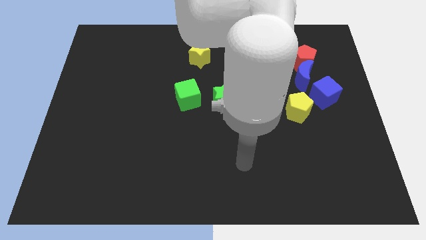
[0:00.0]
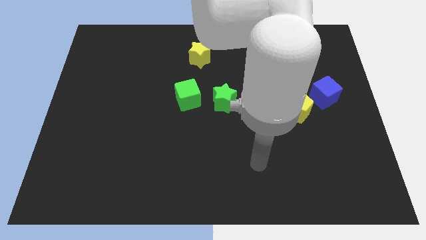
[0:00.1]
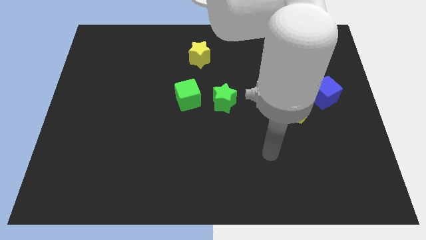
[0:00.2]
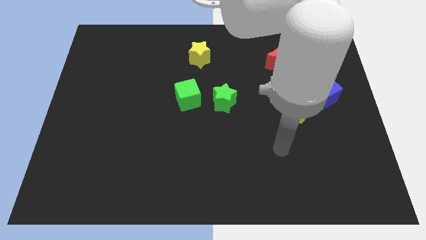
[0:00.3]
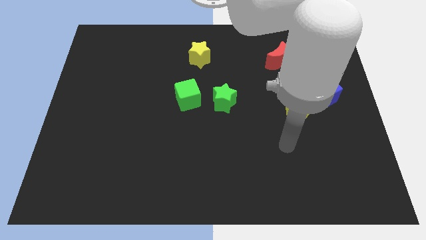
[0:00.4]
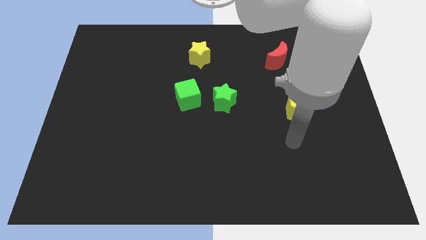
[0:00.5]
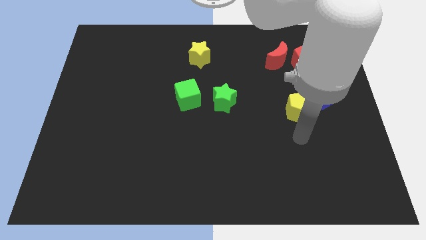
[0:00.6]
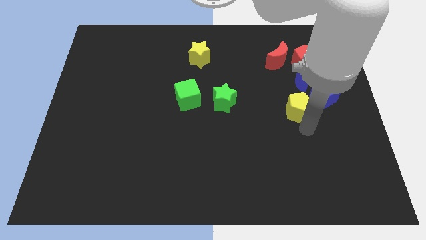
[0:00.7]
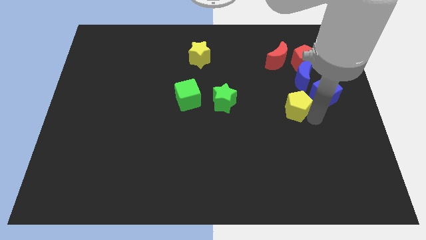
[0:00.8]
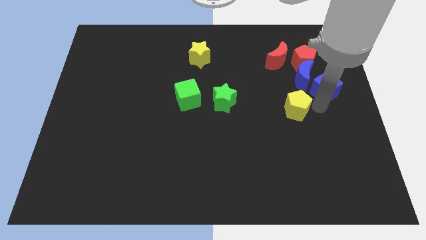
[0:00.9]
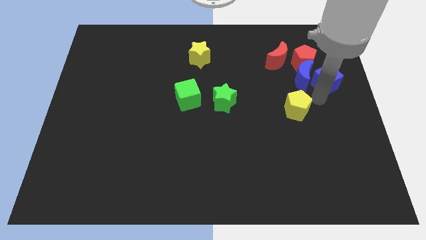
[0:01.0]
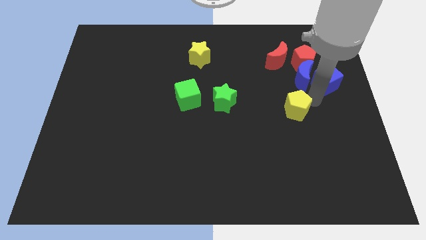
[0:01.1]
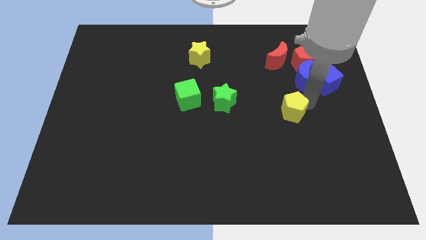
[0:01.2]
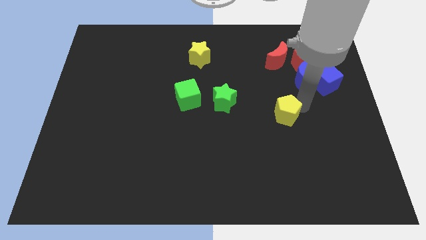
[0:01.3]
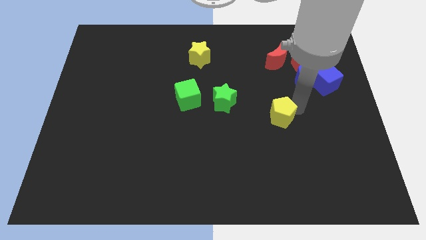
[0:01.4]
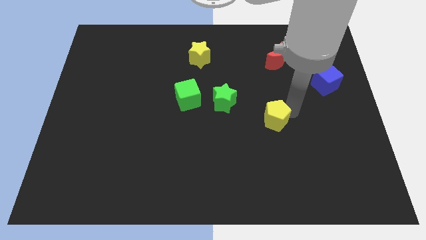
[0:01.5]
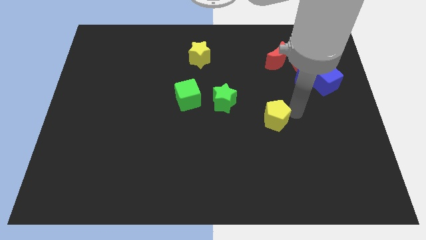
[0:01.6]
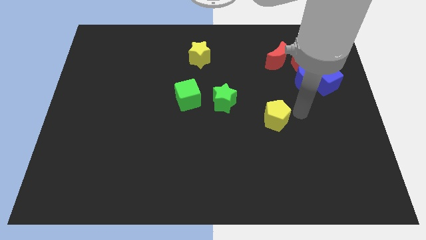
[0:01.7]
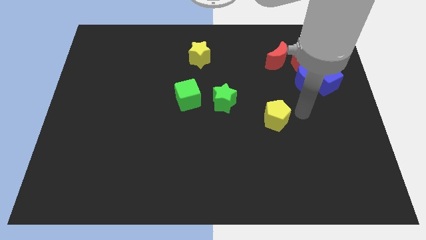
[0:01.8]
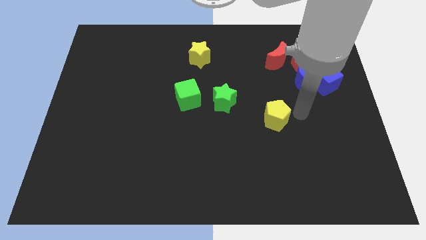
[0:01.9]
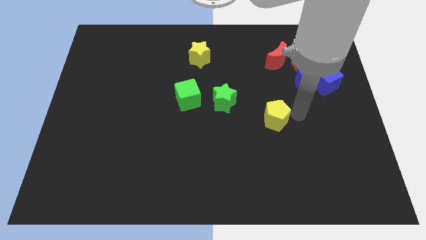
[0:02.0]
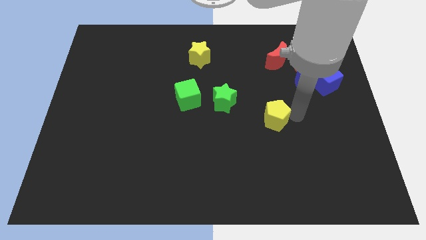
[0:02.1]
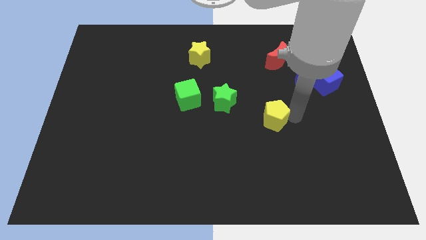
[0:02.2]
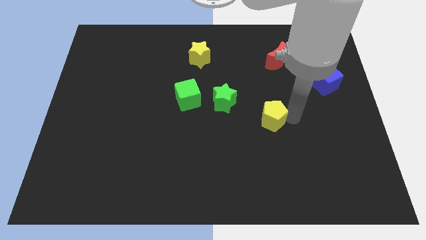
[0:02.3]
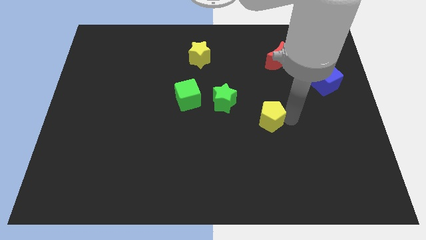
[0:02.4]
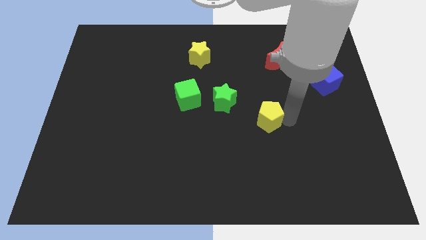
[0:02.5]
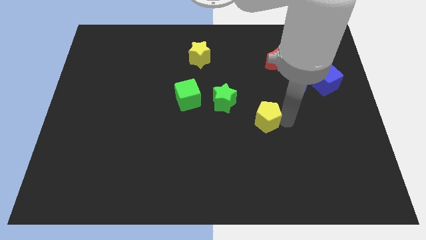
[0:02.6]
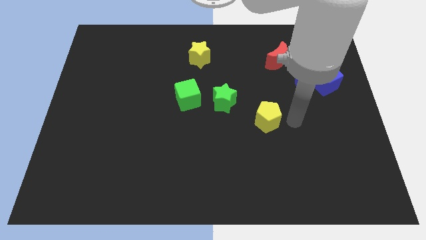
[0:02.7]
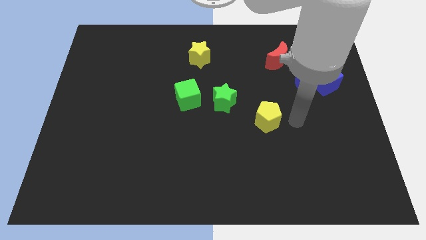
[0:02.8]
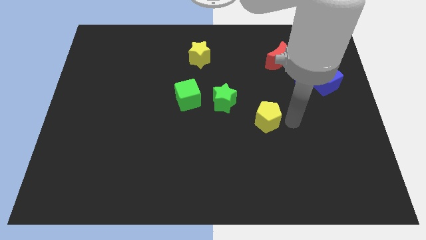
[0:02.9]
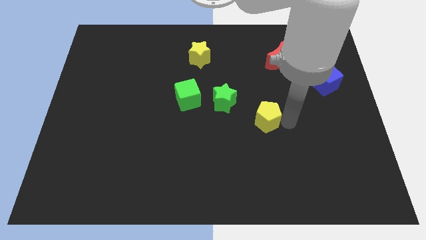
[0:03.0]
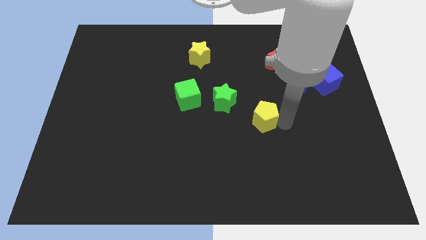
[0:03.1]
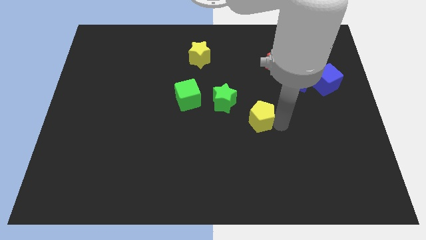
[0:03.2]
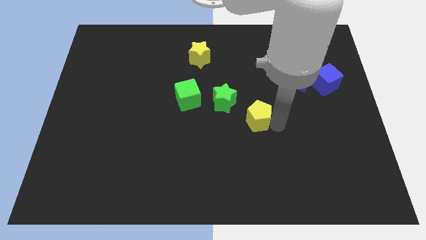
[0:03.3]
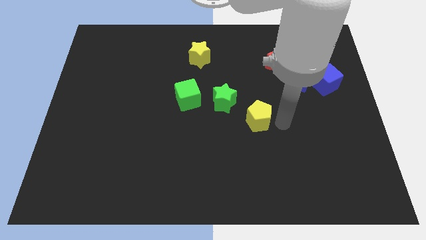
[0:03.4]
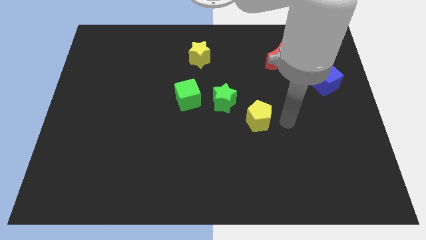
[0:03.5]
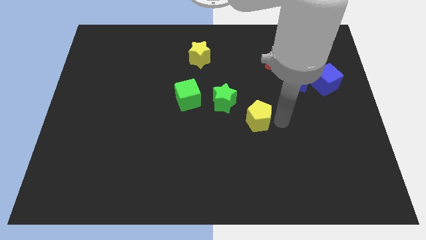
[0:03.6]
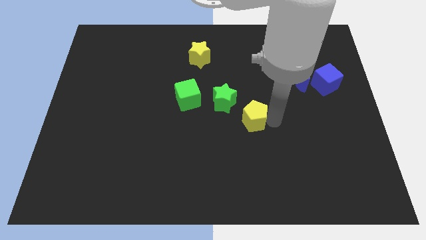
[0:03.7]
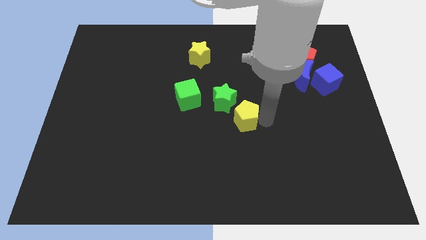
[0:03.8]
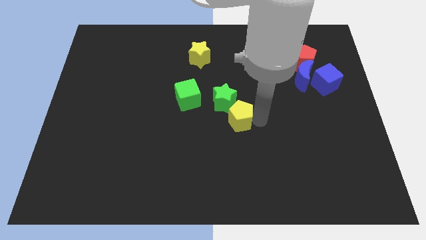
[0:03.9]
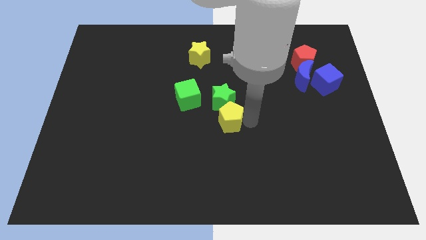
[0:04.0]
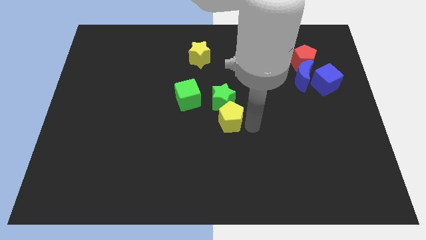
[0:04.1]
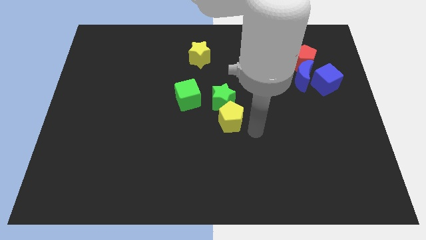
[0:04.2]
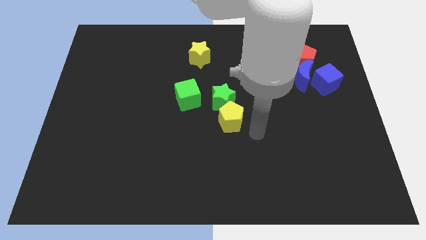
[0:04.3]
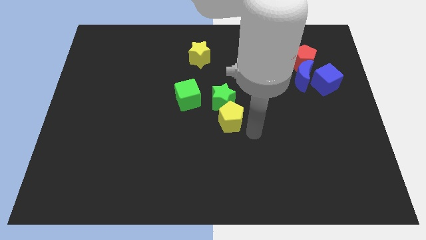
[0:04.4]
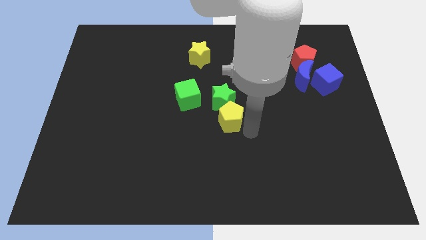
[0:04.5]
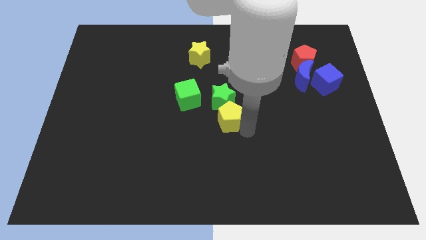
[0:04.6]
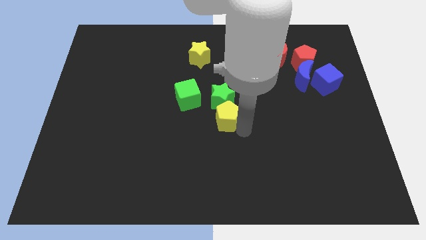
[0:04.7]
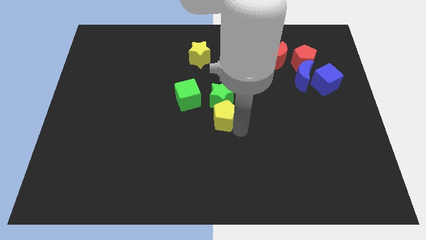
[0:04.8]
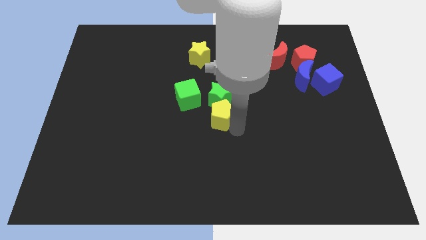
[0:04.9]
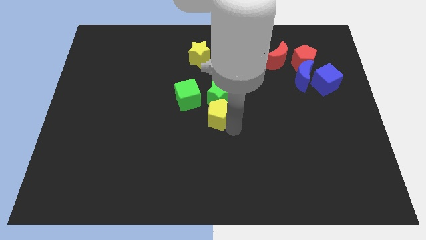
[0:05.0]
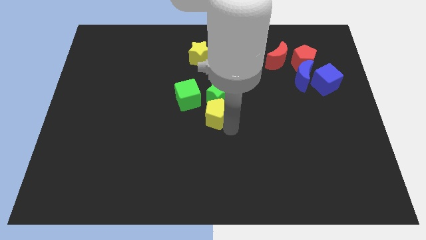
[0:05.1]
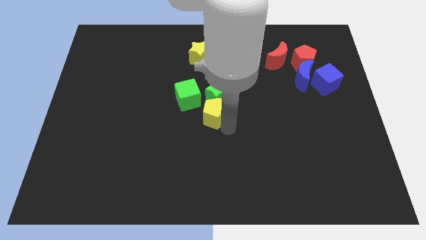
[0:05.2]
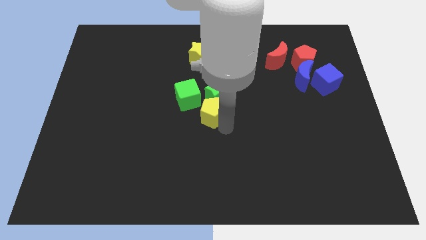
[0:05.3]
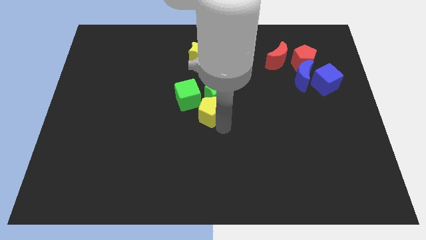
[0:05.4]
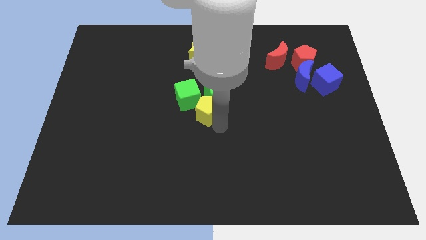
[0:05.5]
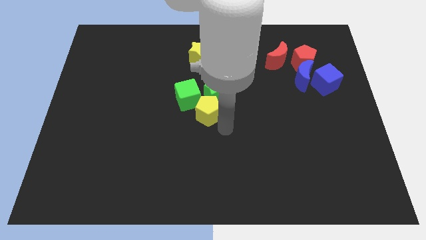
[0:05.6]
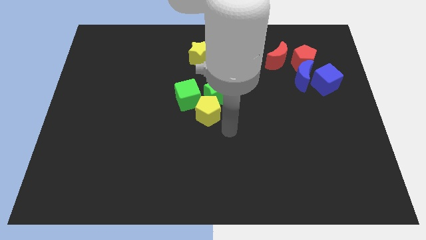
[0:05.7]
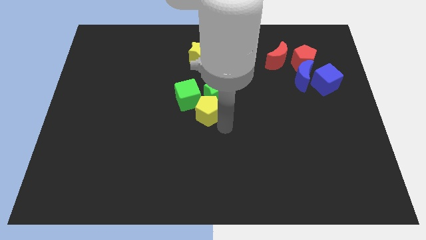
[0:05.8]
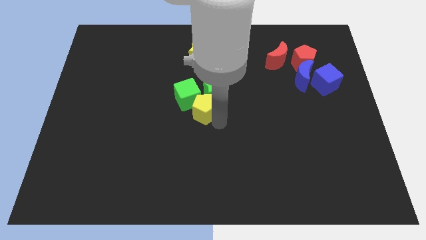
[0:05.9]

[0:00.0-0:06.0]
push the yellow pentagon towards the green cube

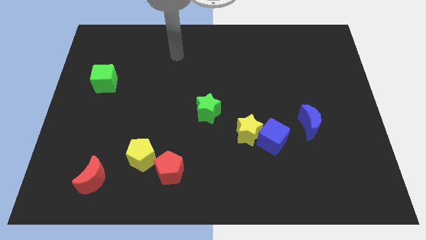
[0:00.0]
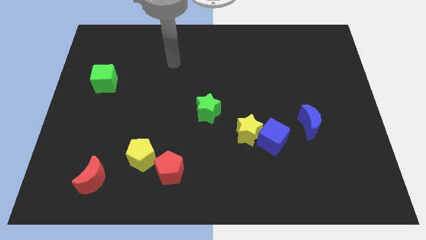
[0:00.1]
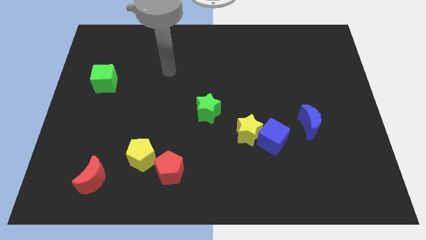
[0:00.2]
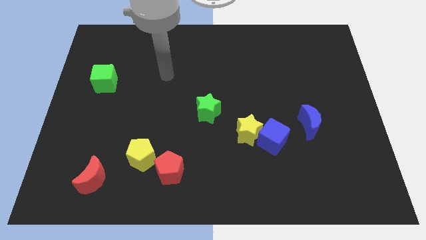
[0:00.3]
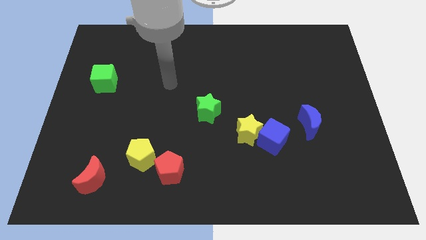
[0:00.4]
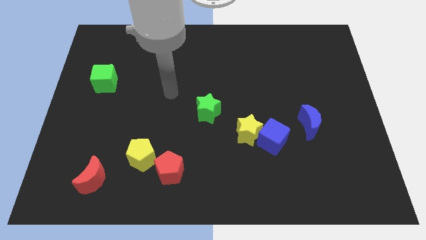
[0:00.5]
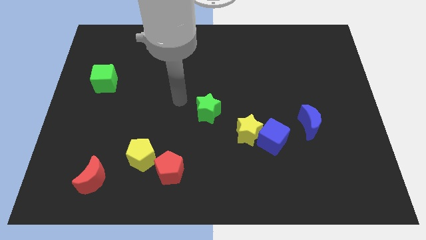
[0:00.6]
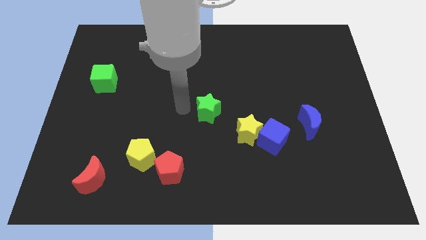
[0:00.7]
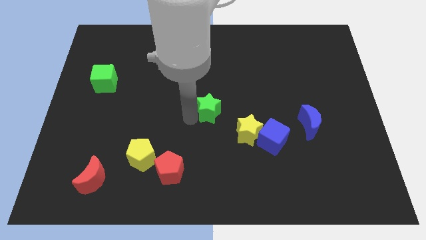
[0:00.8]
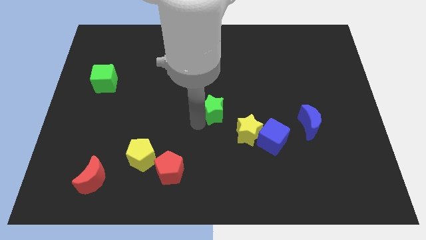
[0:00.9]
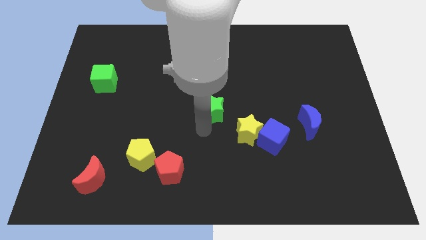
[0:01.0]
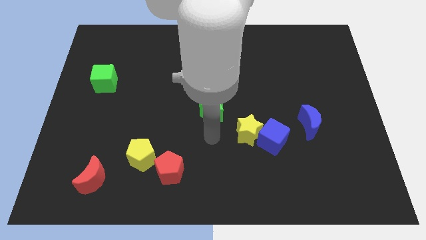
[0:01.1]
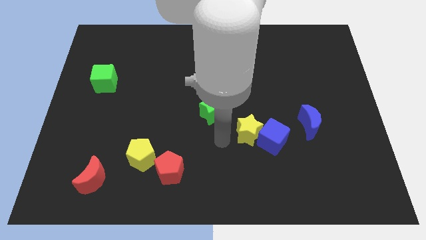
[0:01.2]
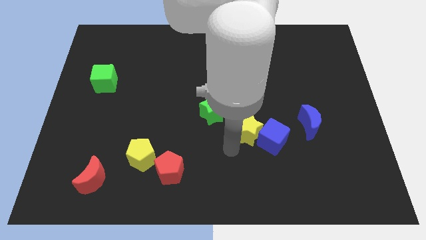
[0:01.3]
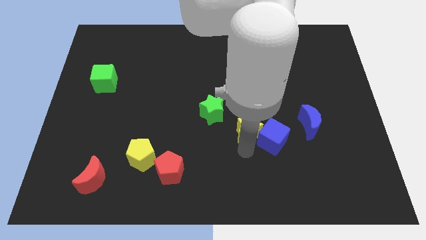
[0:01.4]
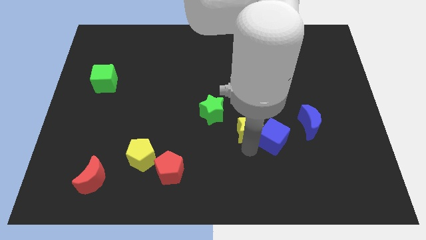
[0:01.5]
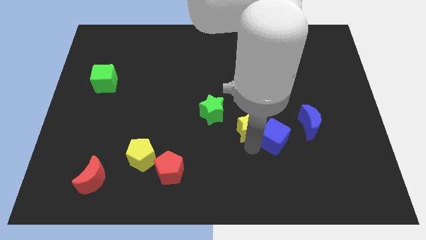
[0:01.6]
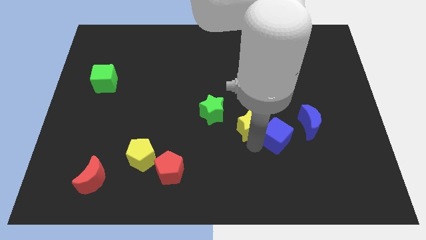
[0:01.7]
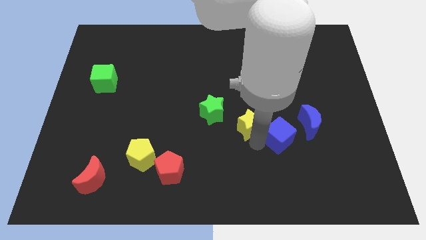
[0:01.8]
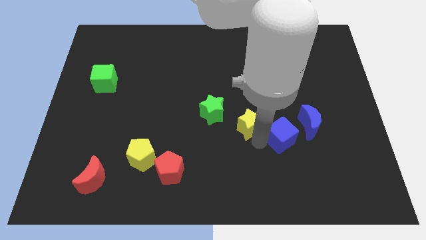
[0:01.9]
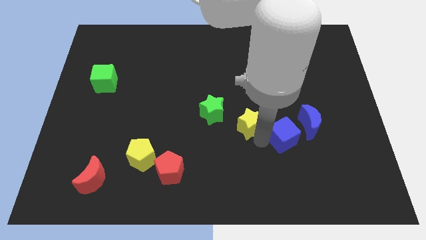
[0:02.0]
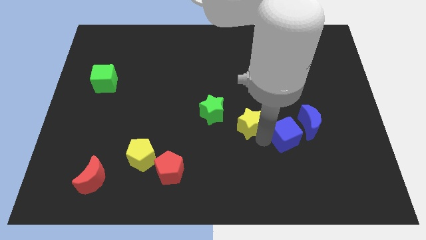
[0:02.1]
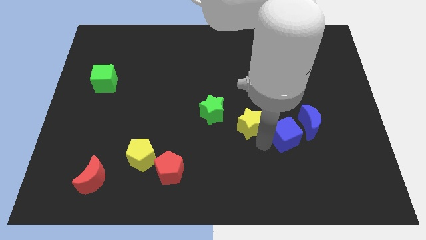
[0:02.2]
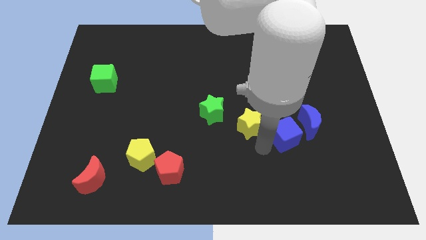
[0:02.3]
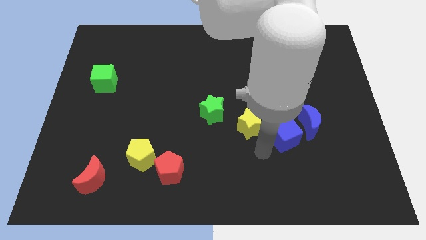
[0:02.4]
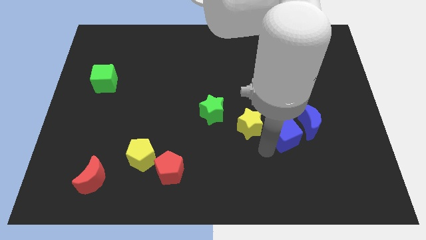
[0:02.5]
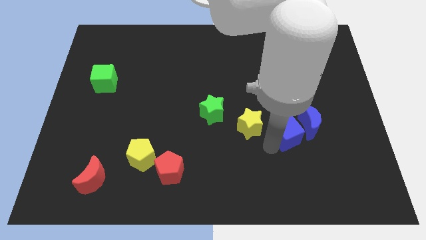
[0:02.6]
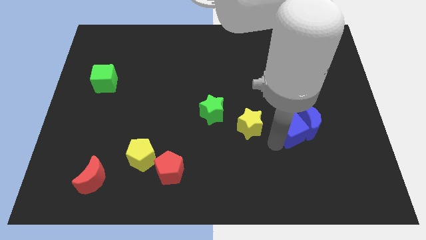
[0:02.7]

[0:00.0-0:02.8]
push the blue cube towards the blue moon
